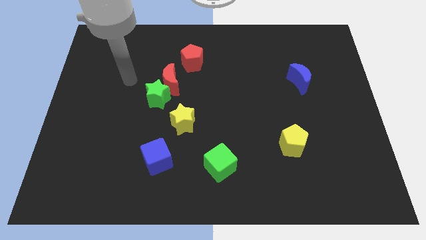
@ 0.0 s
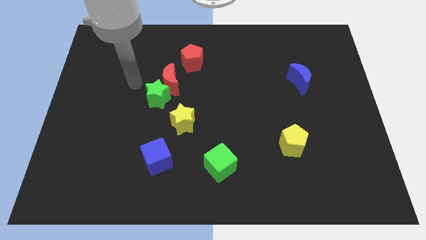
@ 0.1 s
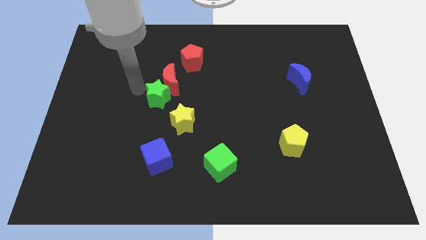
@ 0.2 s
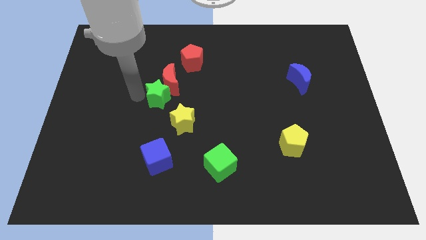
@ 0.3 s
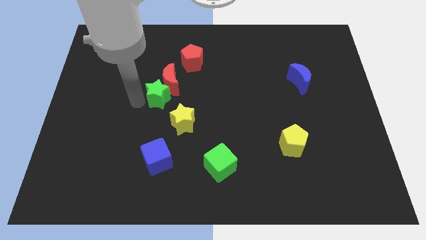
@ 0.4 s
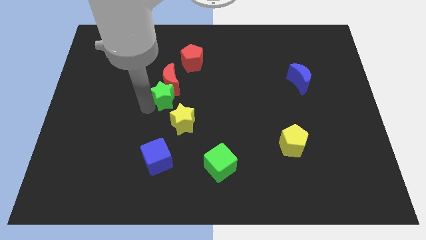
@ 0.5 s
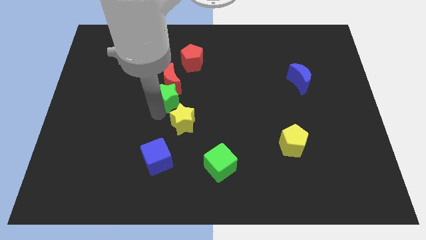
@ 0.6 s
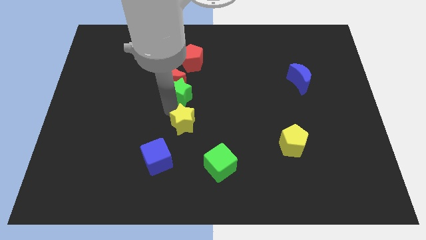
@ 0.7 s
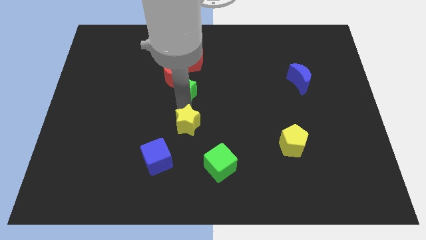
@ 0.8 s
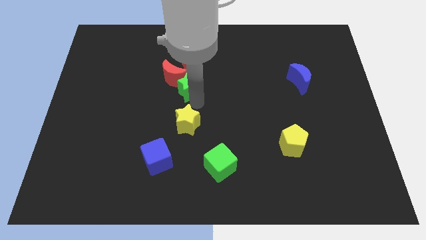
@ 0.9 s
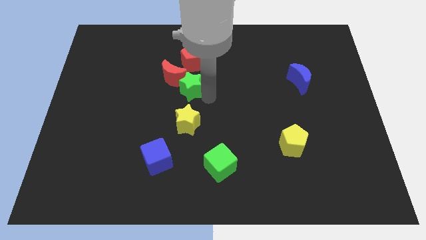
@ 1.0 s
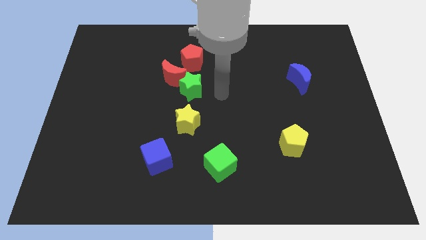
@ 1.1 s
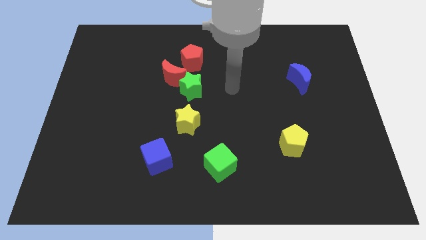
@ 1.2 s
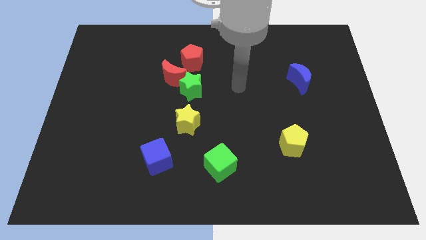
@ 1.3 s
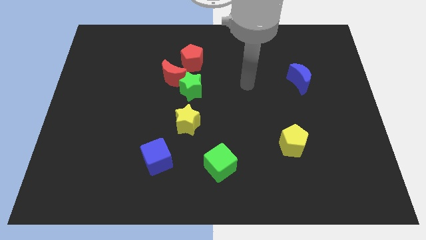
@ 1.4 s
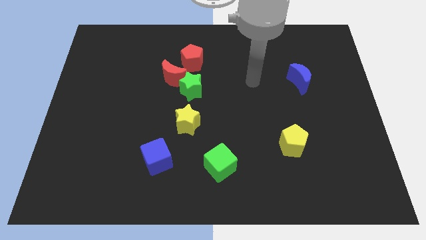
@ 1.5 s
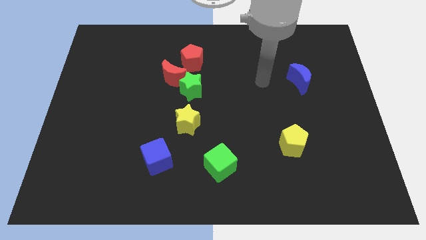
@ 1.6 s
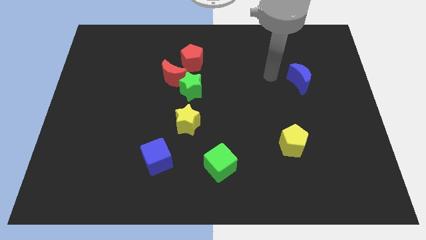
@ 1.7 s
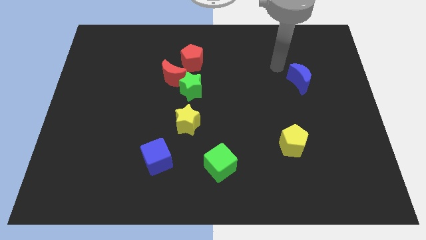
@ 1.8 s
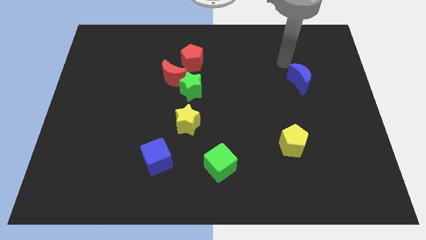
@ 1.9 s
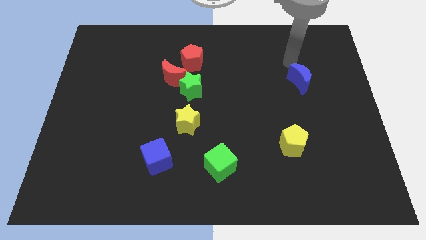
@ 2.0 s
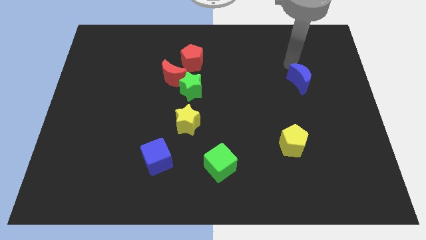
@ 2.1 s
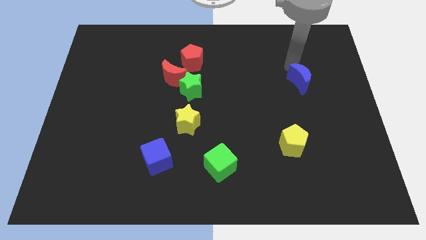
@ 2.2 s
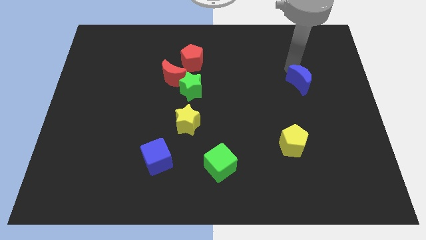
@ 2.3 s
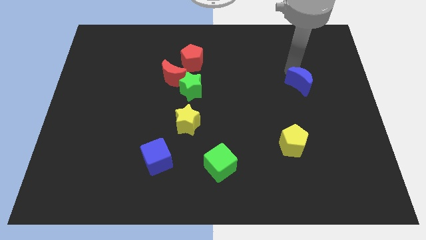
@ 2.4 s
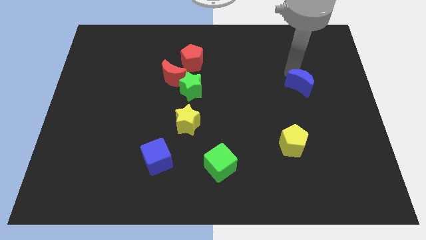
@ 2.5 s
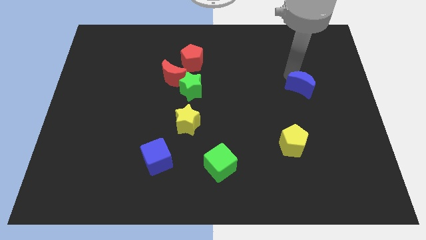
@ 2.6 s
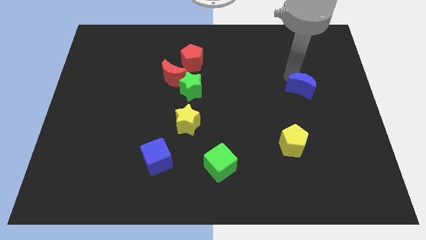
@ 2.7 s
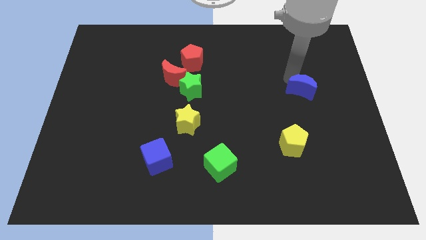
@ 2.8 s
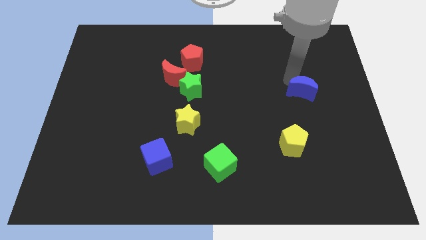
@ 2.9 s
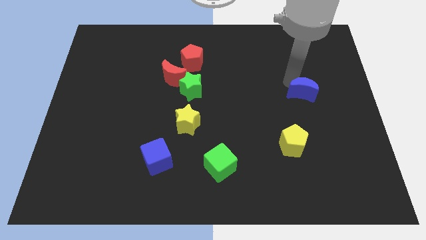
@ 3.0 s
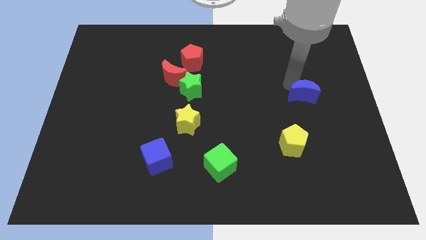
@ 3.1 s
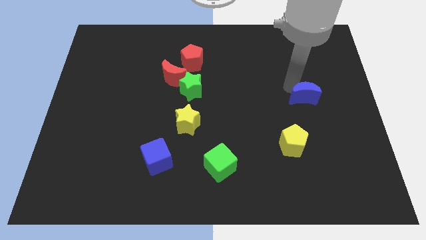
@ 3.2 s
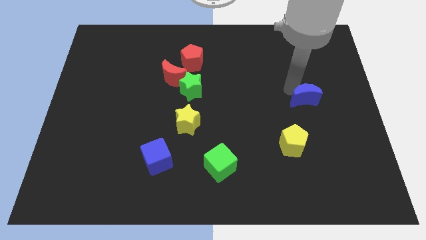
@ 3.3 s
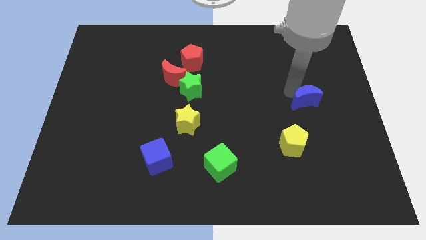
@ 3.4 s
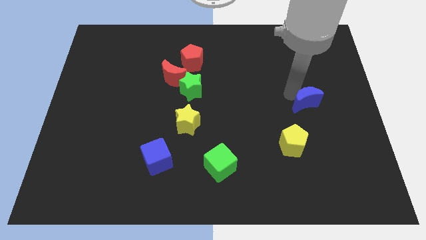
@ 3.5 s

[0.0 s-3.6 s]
slightly move the blue moon down

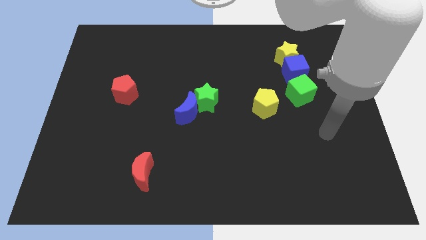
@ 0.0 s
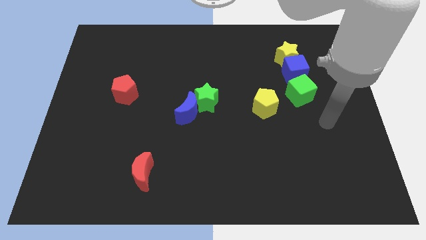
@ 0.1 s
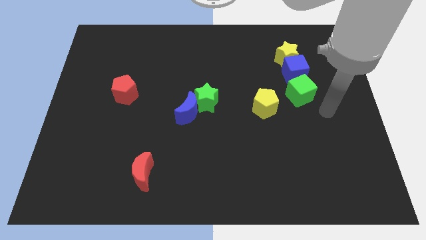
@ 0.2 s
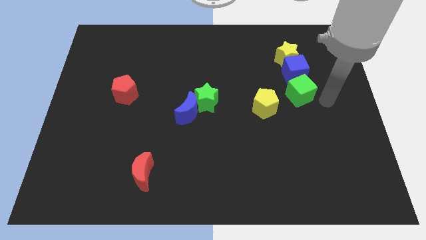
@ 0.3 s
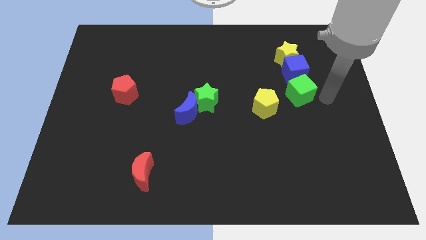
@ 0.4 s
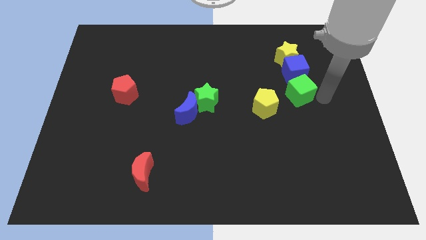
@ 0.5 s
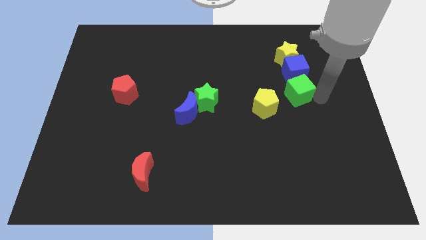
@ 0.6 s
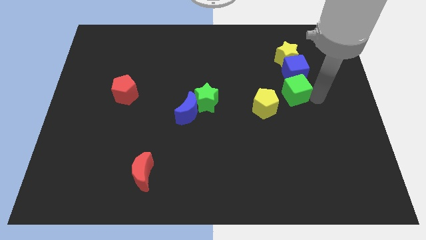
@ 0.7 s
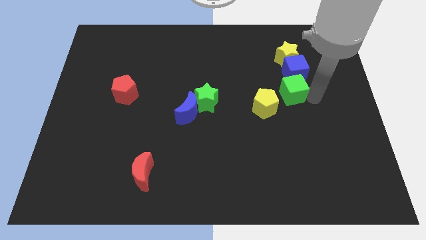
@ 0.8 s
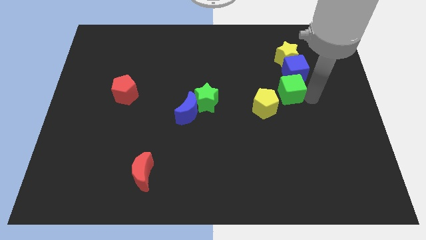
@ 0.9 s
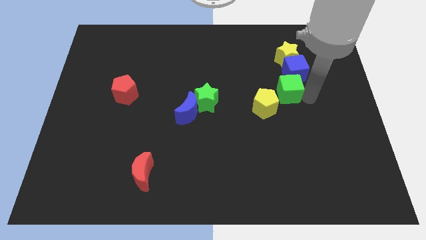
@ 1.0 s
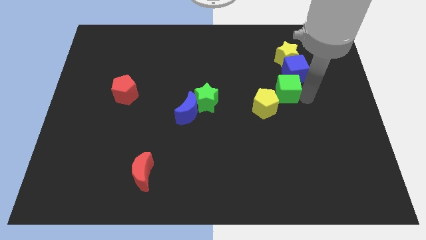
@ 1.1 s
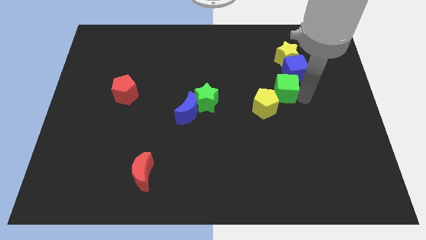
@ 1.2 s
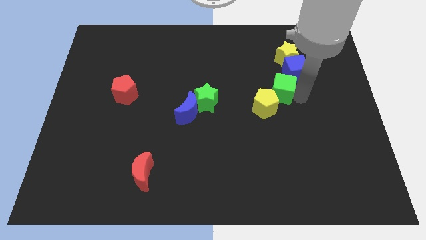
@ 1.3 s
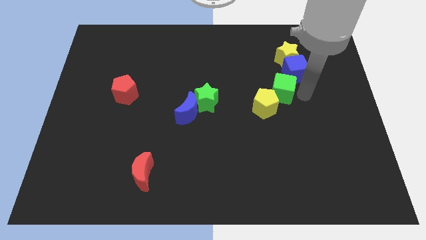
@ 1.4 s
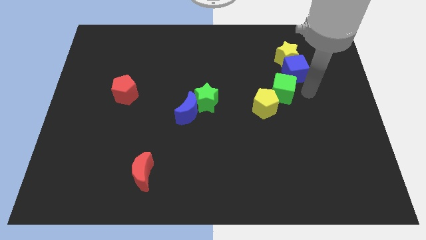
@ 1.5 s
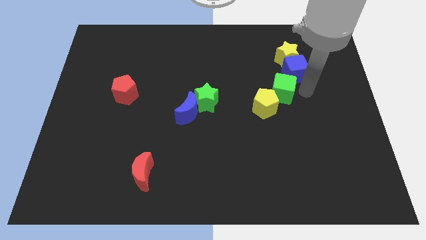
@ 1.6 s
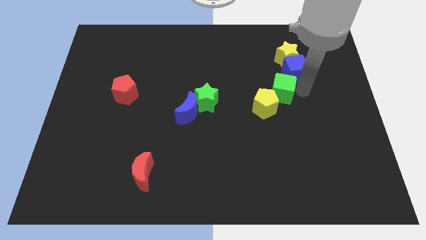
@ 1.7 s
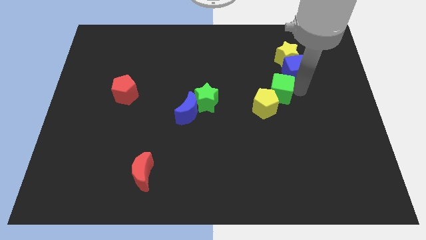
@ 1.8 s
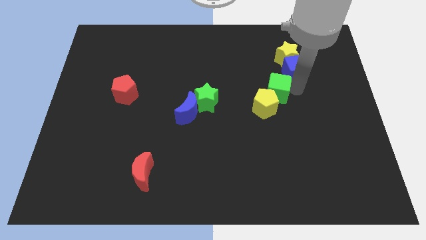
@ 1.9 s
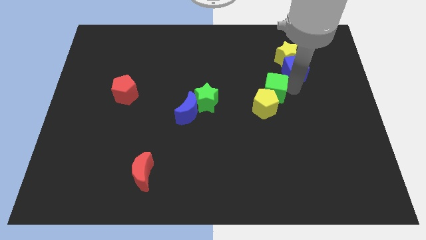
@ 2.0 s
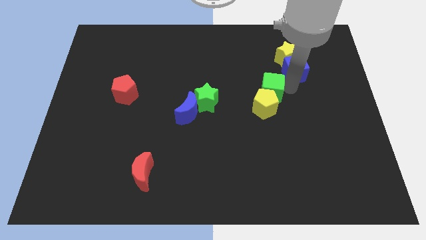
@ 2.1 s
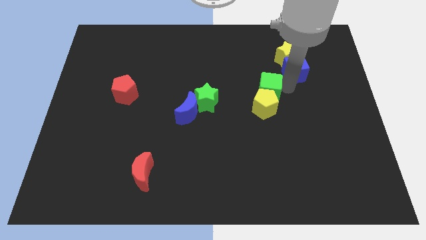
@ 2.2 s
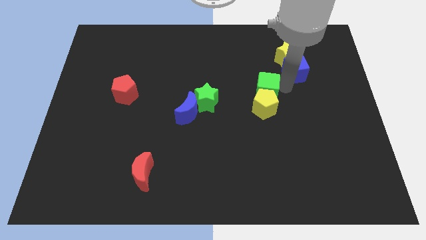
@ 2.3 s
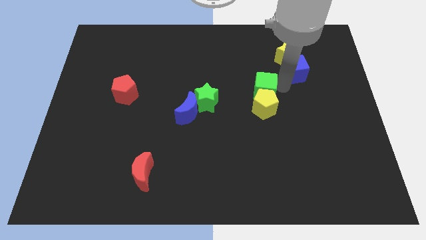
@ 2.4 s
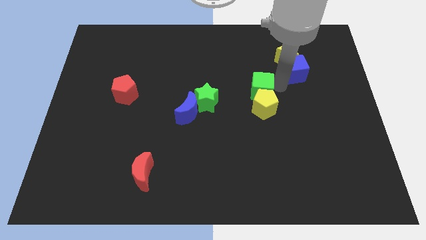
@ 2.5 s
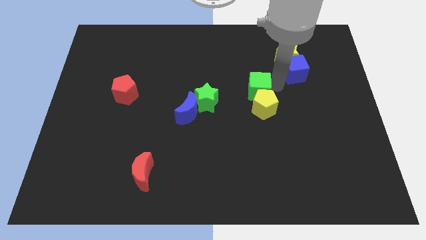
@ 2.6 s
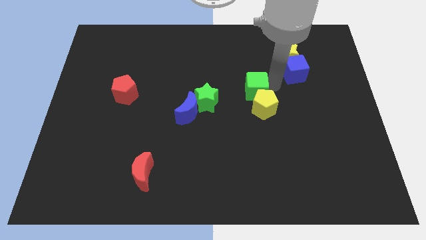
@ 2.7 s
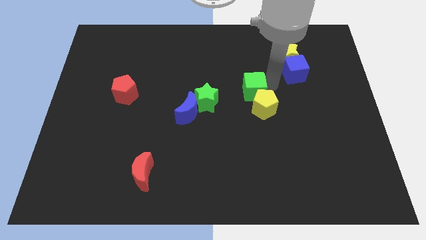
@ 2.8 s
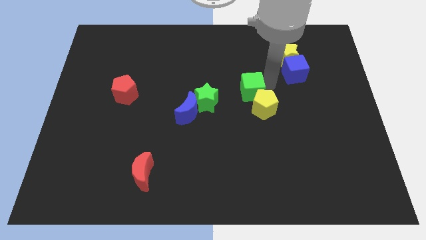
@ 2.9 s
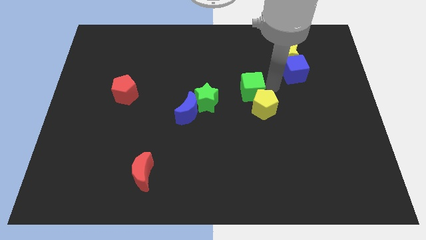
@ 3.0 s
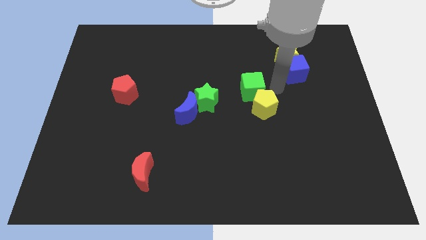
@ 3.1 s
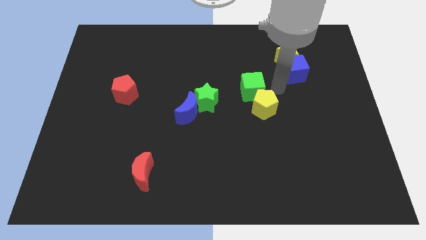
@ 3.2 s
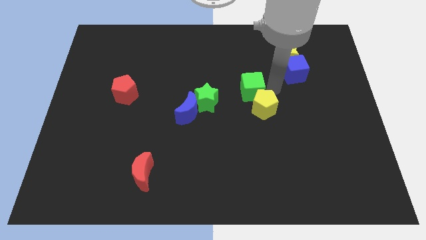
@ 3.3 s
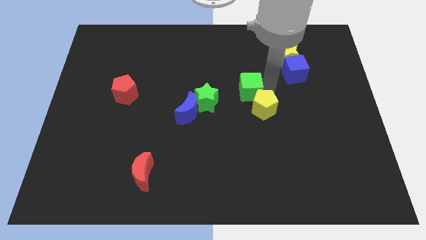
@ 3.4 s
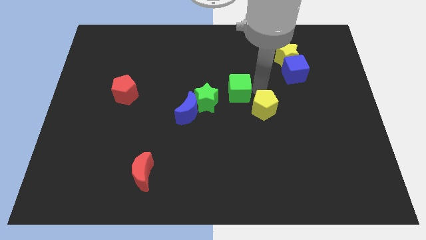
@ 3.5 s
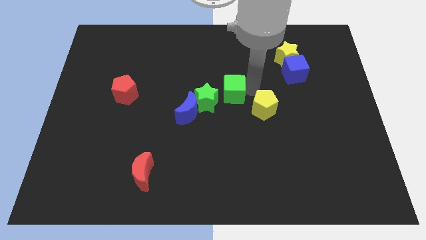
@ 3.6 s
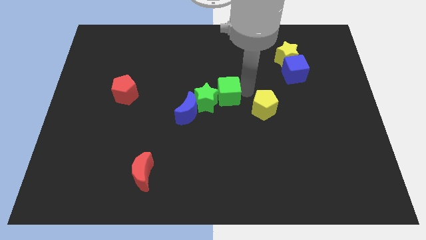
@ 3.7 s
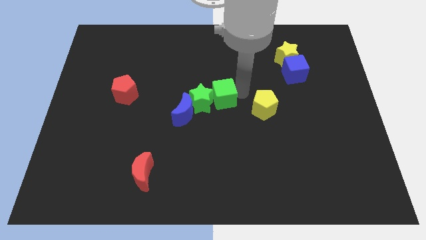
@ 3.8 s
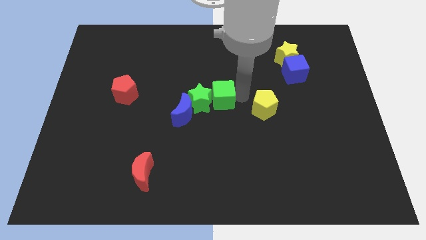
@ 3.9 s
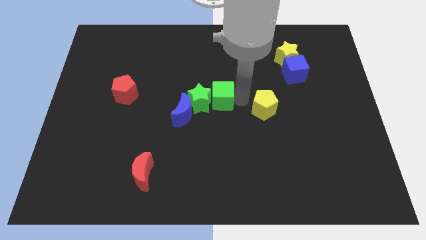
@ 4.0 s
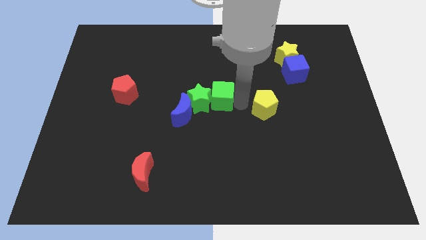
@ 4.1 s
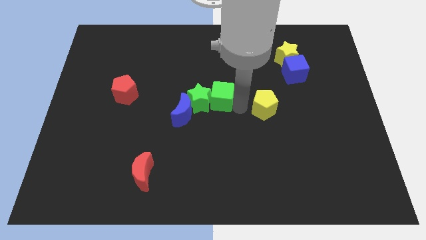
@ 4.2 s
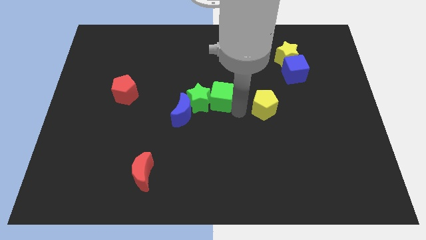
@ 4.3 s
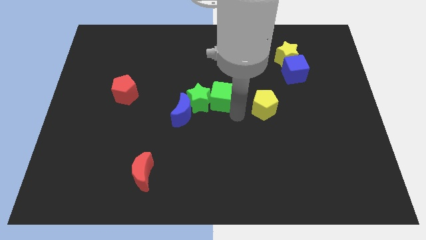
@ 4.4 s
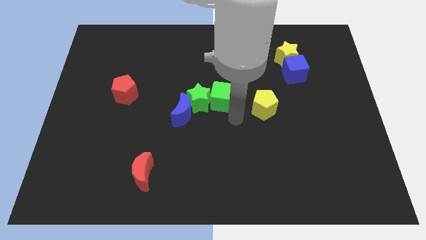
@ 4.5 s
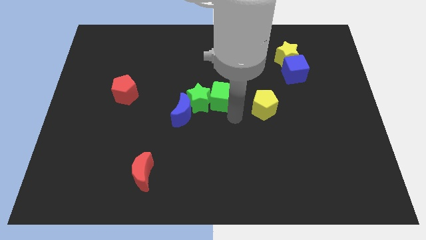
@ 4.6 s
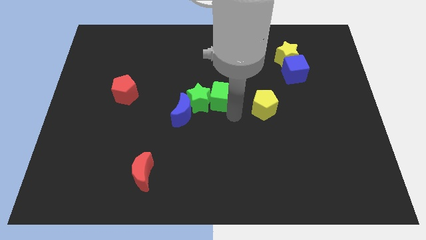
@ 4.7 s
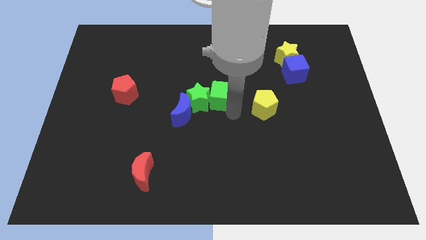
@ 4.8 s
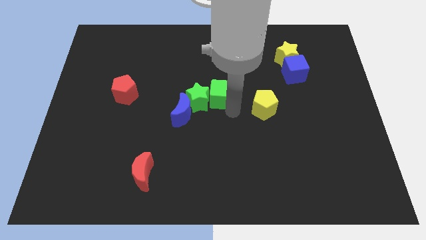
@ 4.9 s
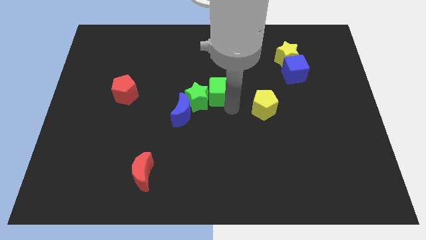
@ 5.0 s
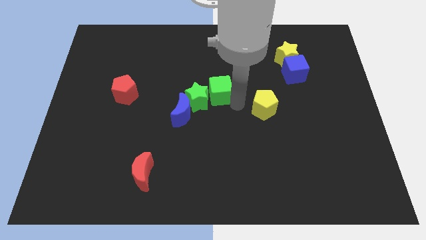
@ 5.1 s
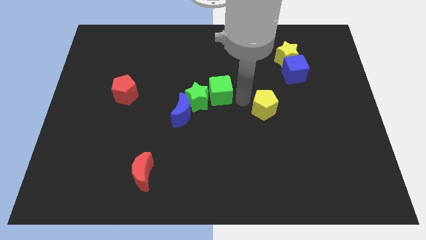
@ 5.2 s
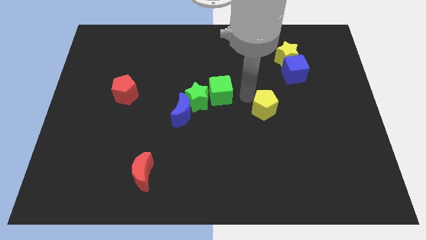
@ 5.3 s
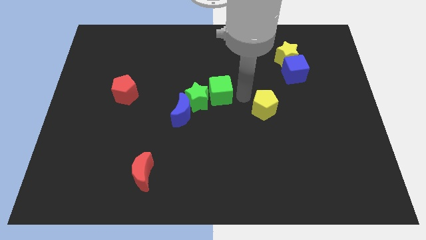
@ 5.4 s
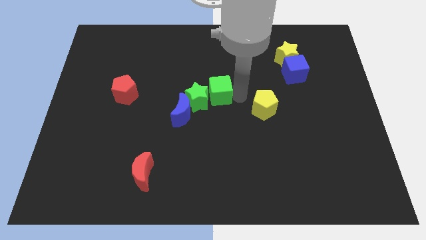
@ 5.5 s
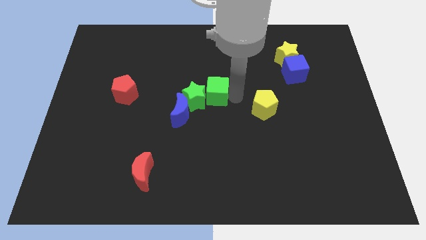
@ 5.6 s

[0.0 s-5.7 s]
slide the green cube left
